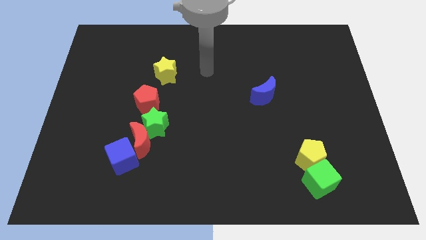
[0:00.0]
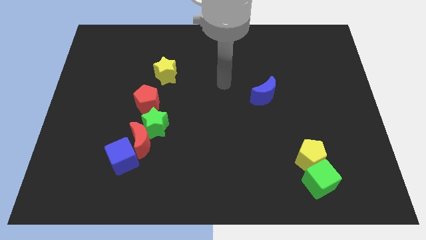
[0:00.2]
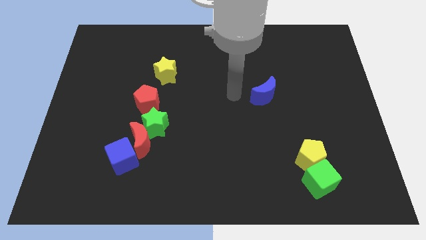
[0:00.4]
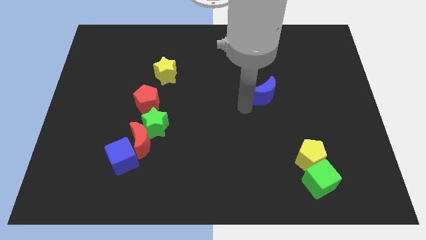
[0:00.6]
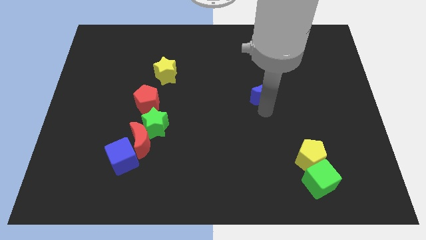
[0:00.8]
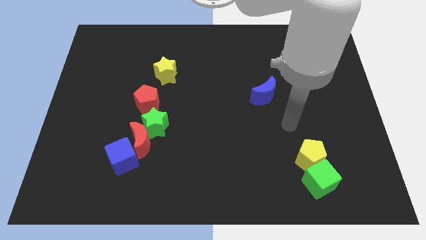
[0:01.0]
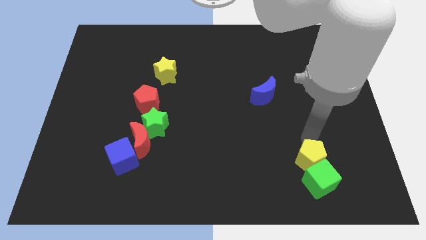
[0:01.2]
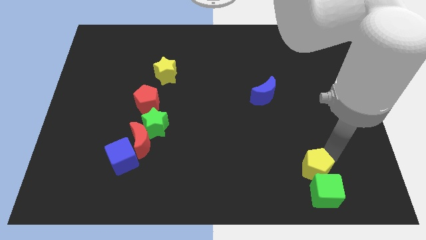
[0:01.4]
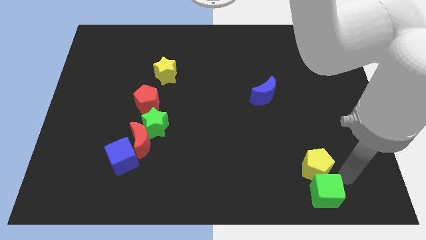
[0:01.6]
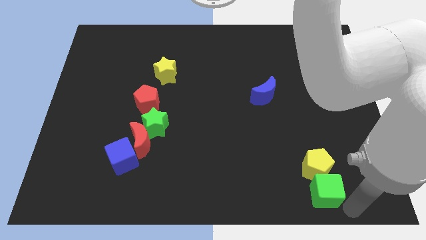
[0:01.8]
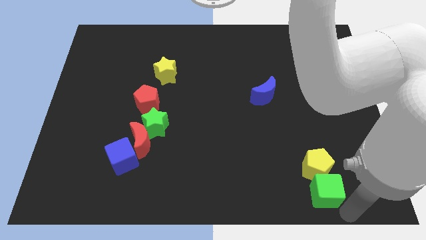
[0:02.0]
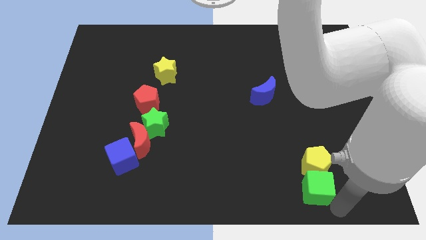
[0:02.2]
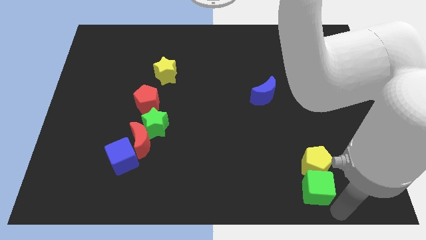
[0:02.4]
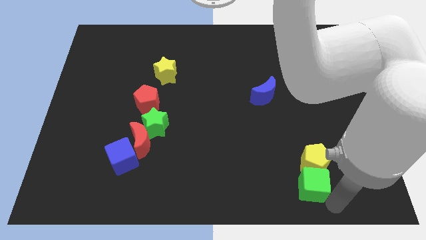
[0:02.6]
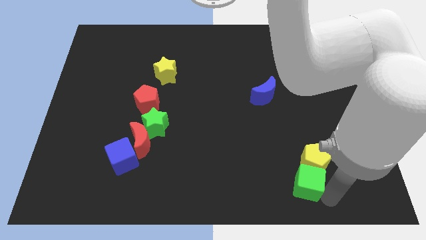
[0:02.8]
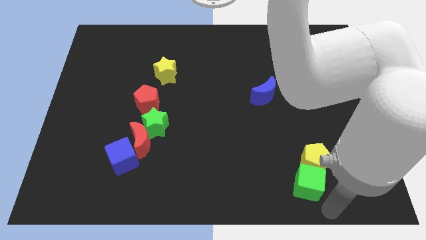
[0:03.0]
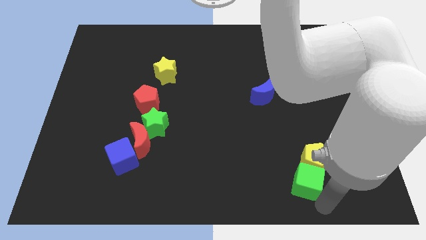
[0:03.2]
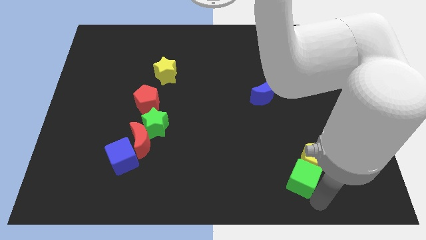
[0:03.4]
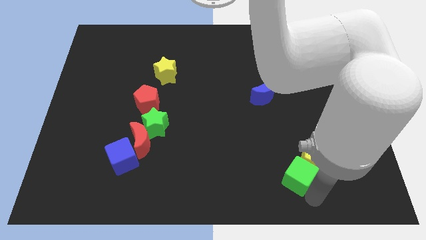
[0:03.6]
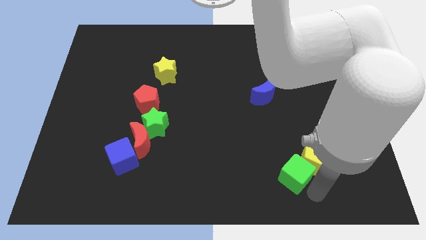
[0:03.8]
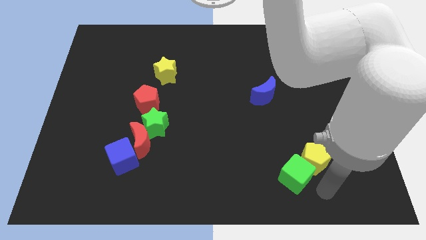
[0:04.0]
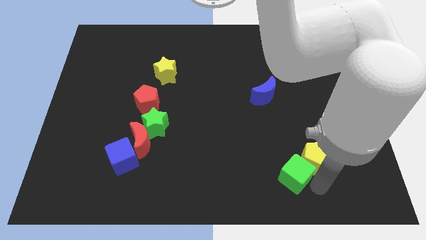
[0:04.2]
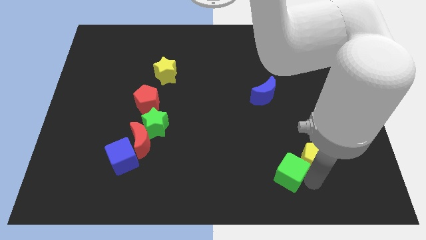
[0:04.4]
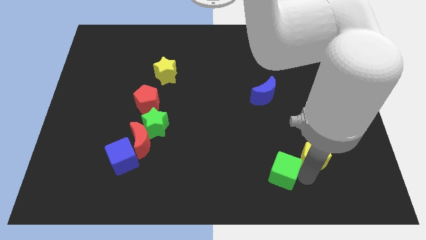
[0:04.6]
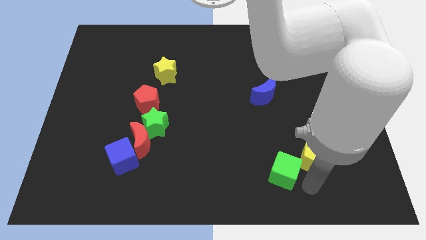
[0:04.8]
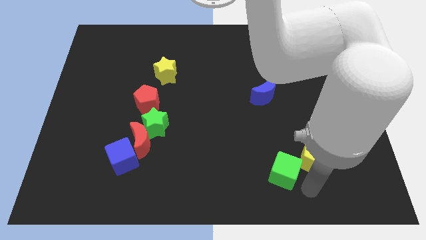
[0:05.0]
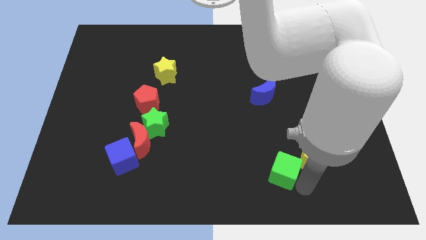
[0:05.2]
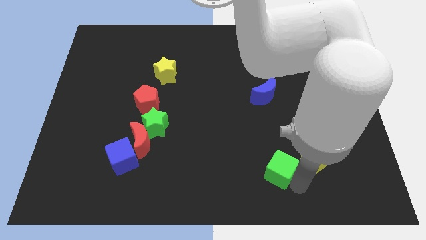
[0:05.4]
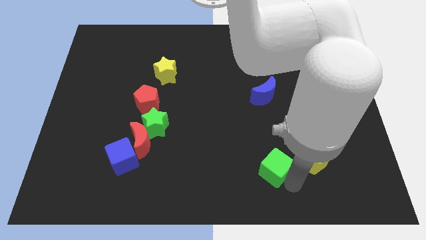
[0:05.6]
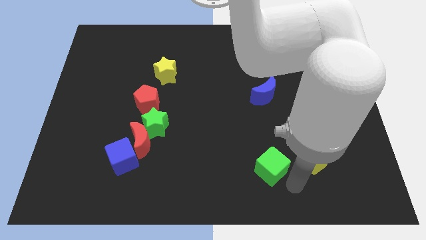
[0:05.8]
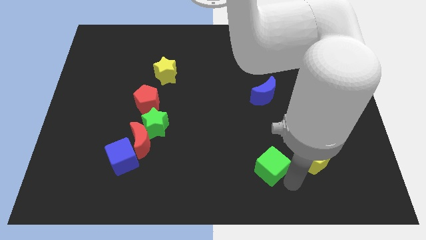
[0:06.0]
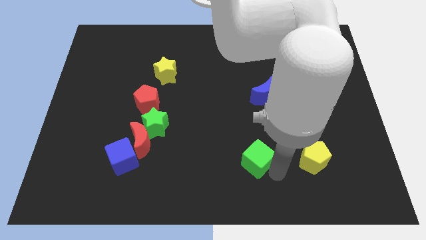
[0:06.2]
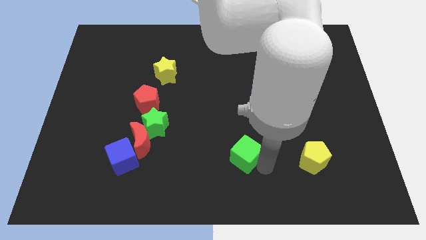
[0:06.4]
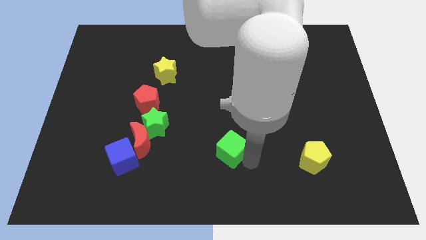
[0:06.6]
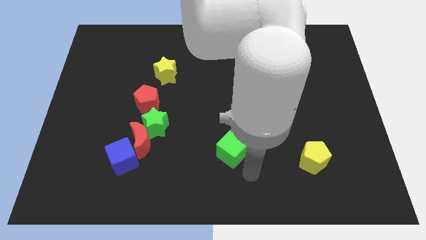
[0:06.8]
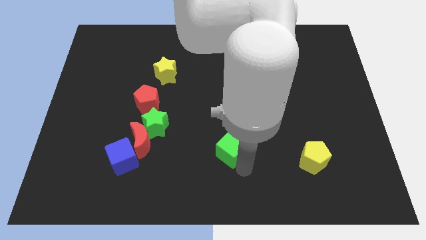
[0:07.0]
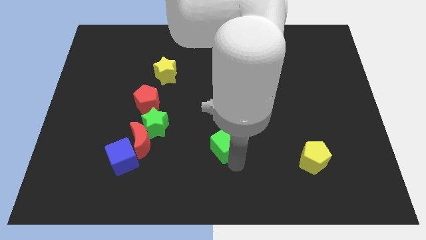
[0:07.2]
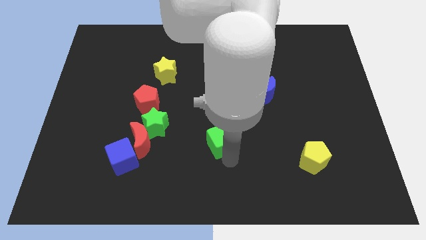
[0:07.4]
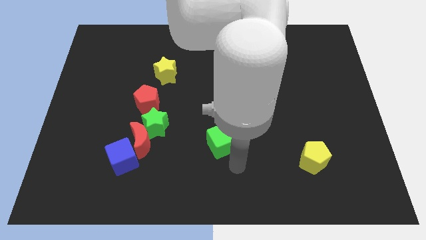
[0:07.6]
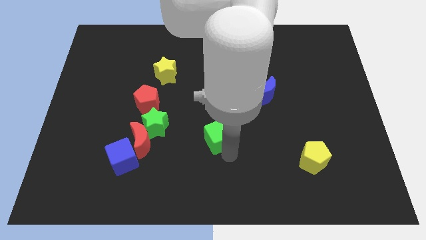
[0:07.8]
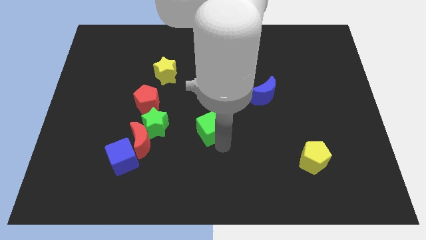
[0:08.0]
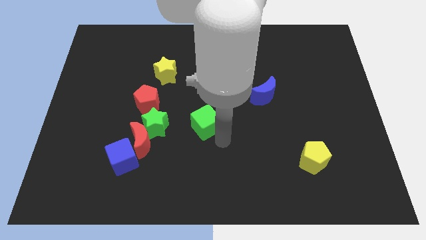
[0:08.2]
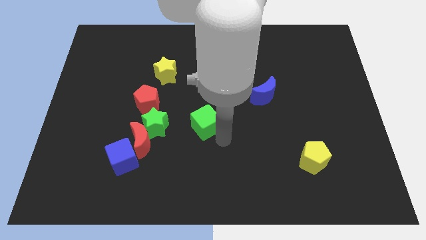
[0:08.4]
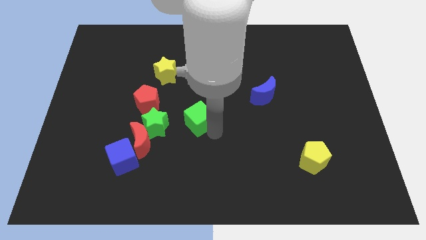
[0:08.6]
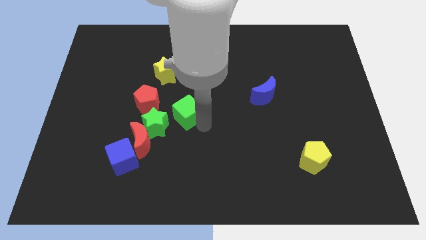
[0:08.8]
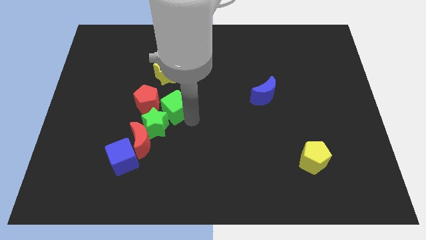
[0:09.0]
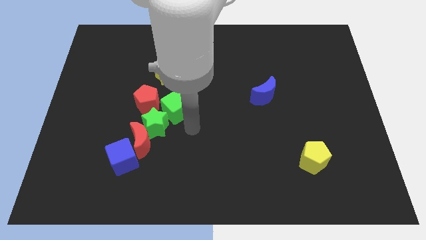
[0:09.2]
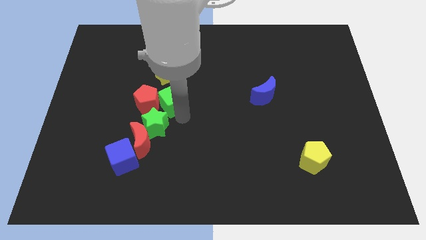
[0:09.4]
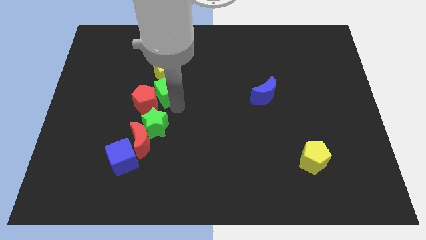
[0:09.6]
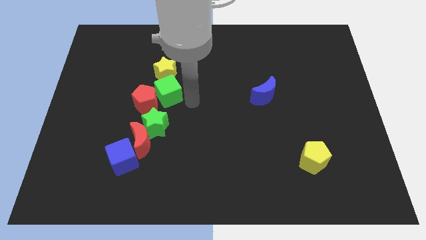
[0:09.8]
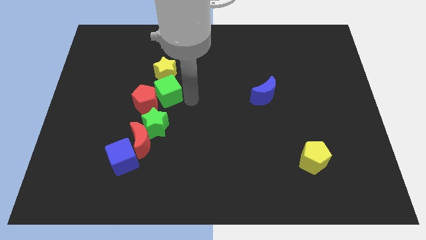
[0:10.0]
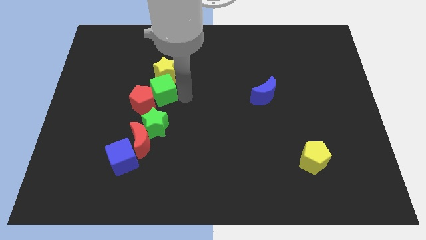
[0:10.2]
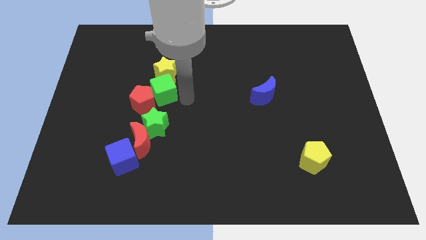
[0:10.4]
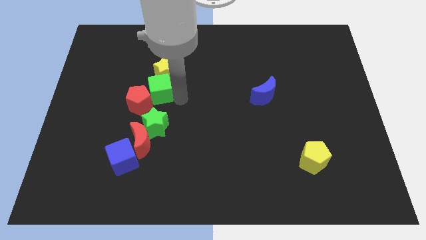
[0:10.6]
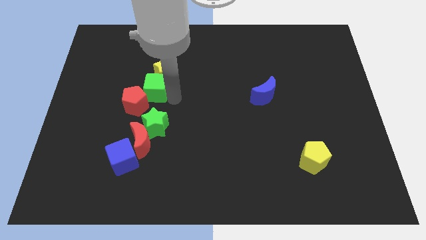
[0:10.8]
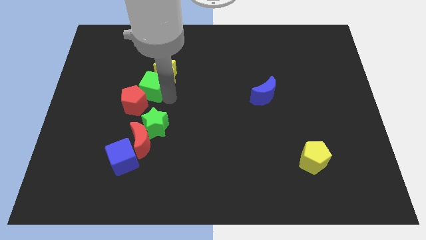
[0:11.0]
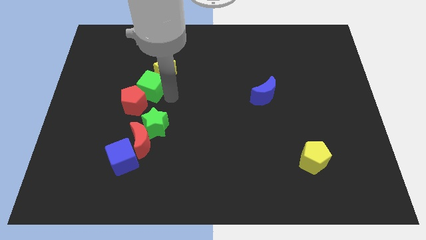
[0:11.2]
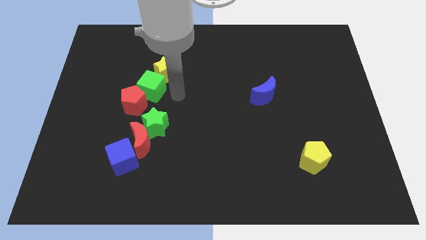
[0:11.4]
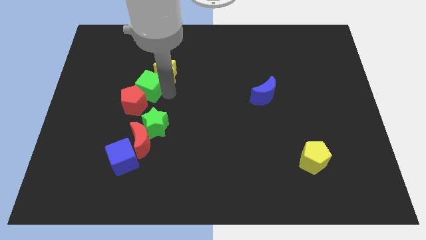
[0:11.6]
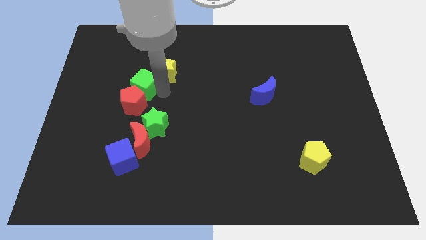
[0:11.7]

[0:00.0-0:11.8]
move the green cube left of the yellow star

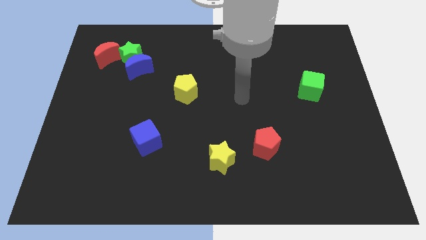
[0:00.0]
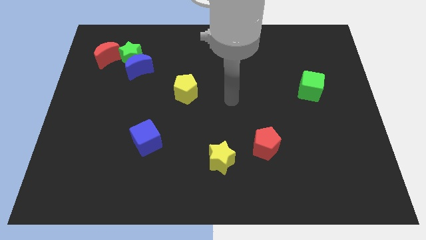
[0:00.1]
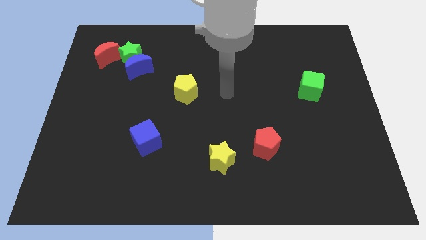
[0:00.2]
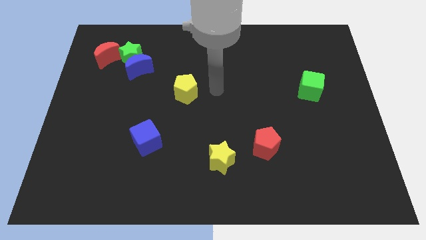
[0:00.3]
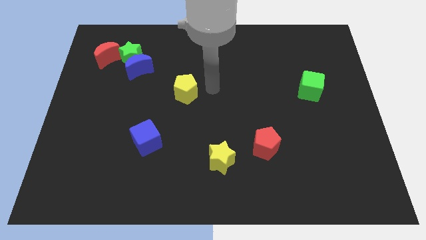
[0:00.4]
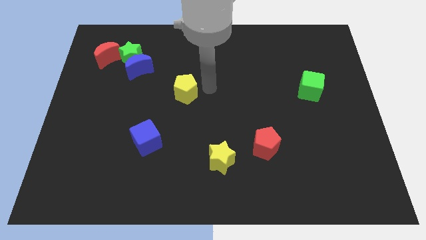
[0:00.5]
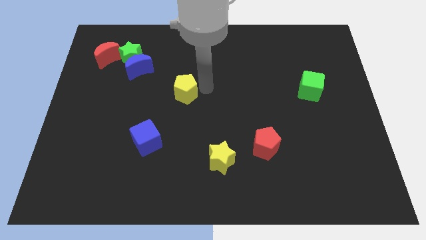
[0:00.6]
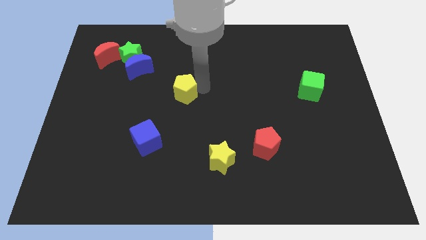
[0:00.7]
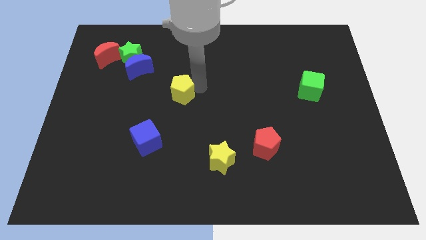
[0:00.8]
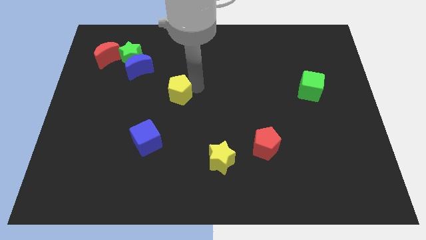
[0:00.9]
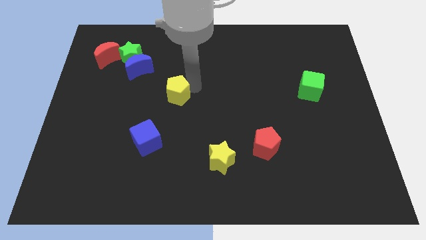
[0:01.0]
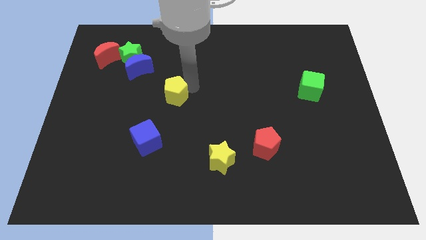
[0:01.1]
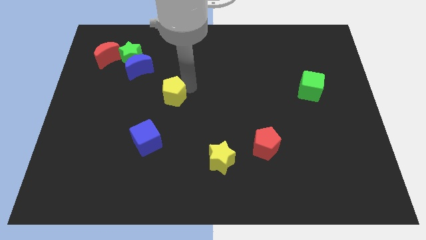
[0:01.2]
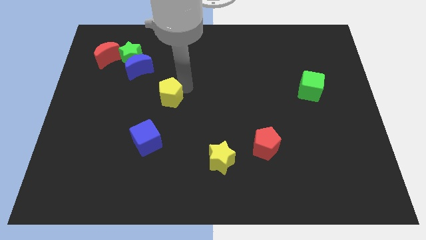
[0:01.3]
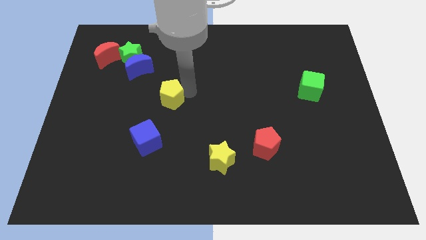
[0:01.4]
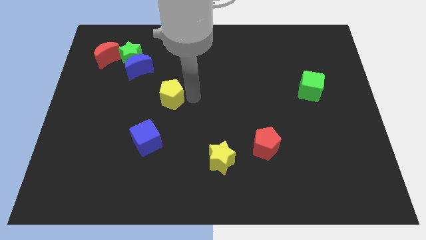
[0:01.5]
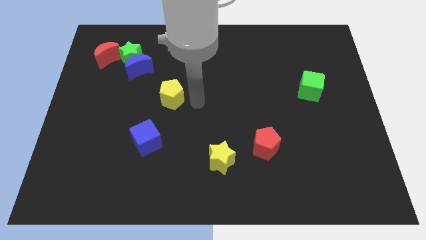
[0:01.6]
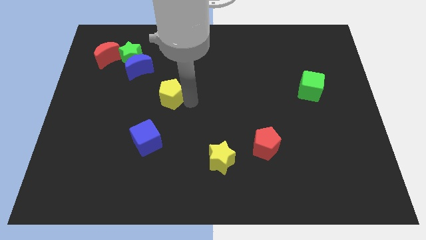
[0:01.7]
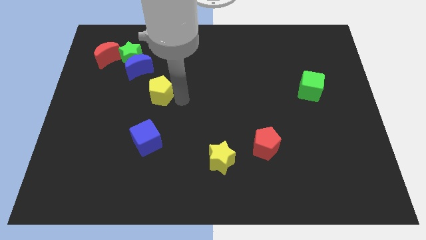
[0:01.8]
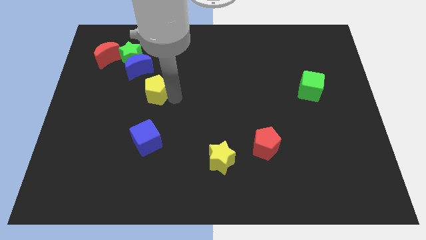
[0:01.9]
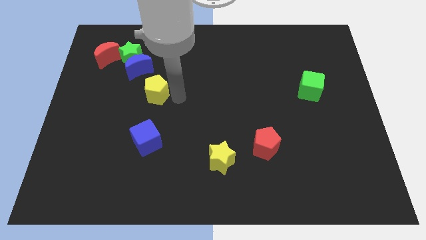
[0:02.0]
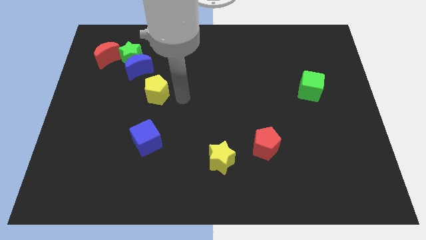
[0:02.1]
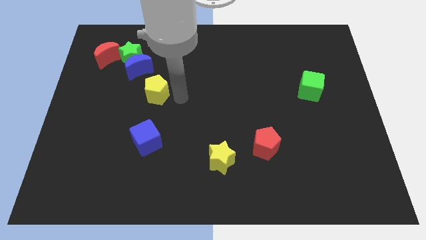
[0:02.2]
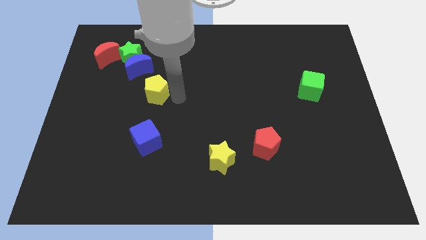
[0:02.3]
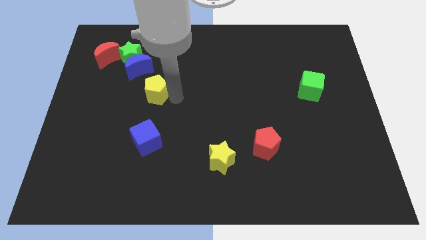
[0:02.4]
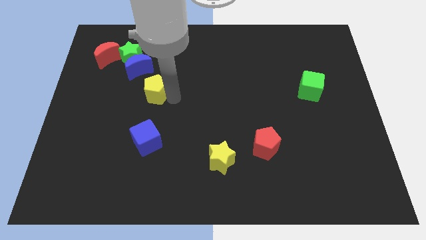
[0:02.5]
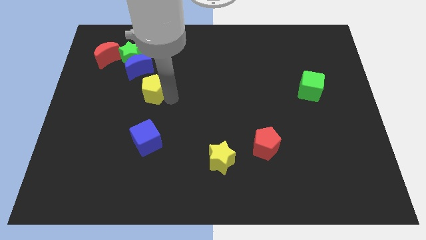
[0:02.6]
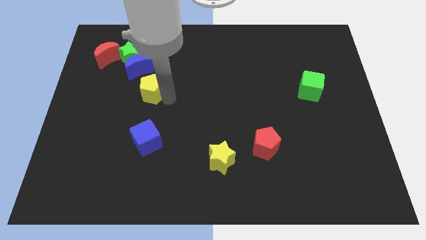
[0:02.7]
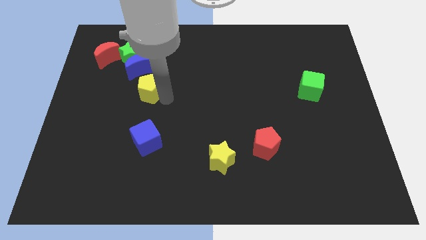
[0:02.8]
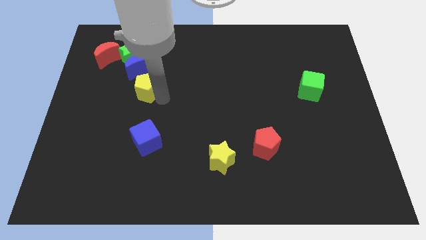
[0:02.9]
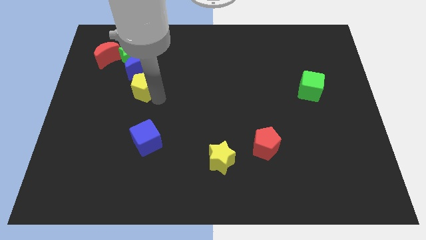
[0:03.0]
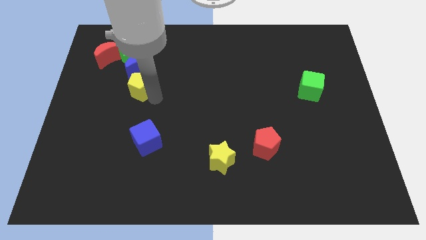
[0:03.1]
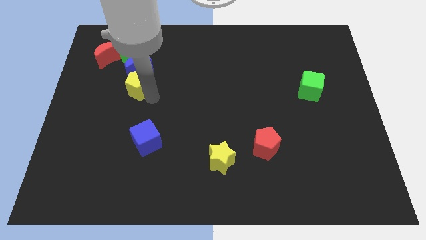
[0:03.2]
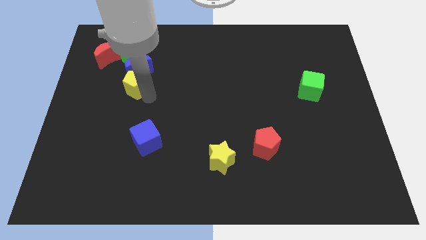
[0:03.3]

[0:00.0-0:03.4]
slide the yellow pentagon to the bottom left side of the blue moon
